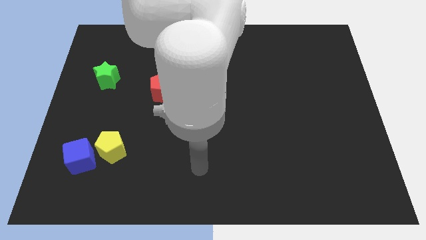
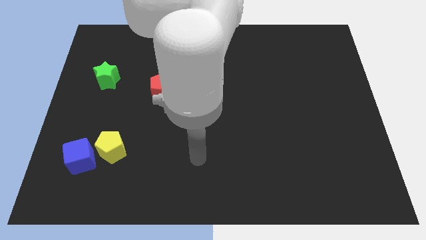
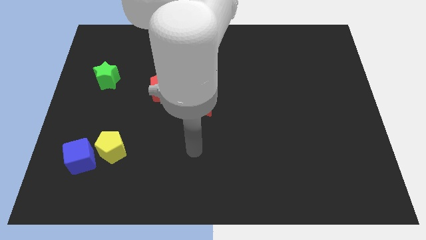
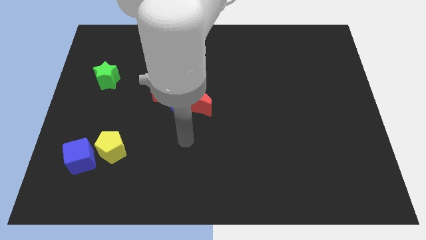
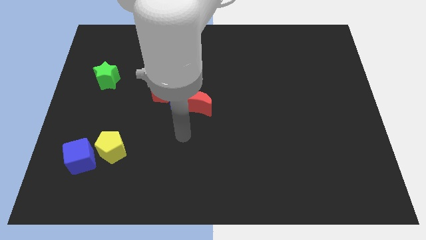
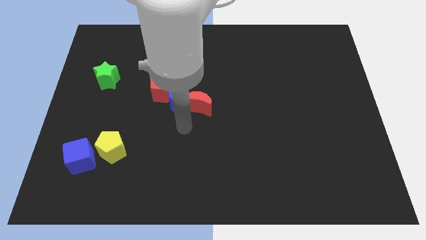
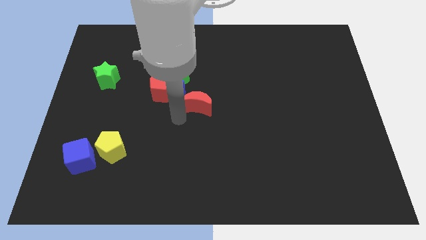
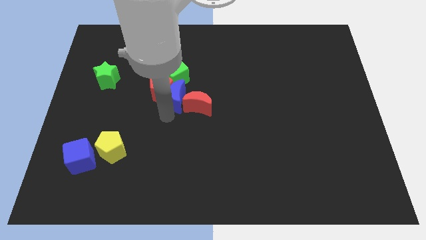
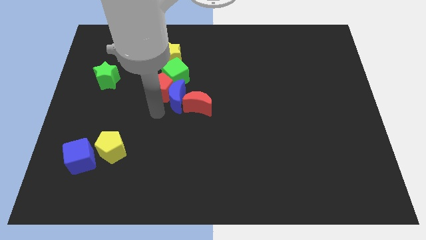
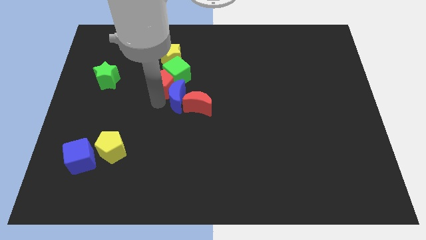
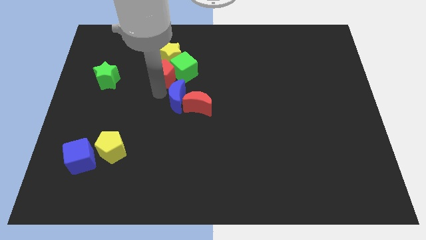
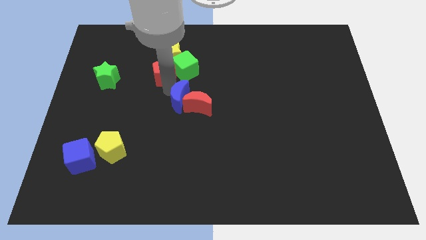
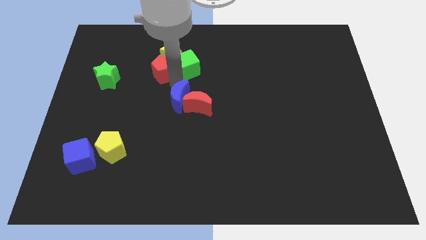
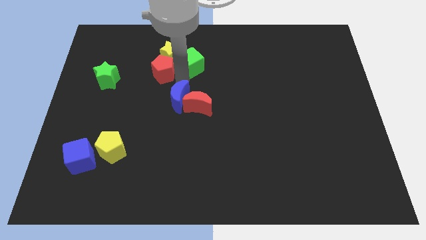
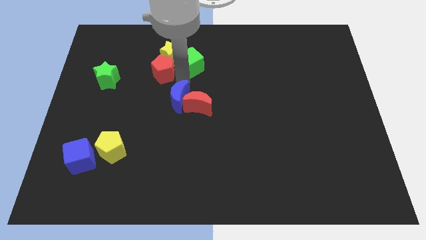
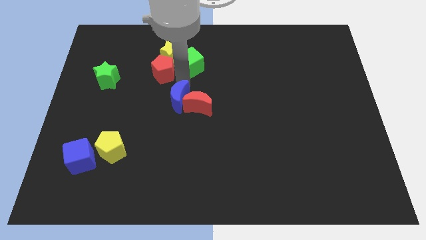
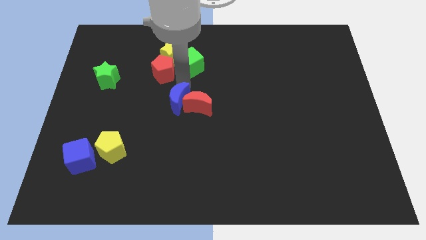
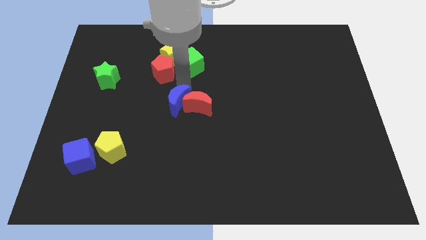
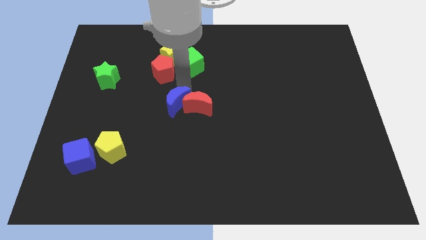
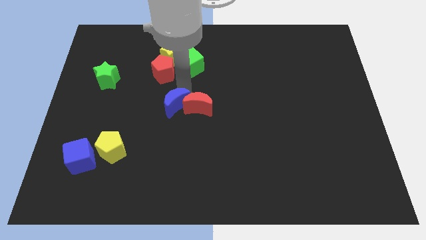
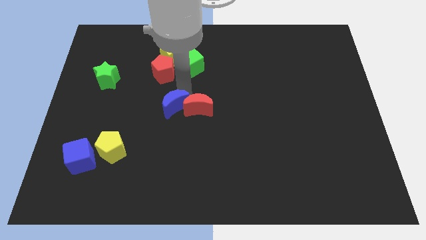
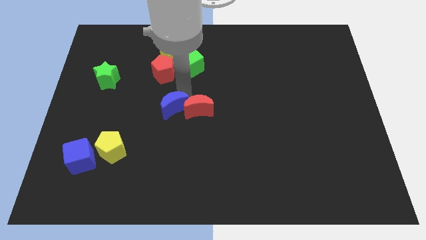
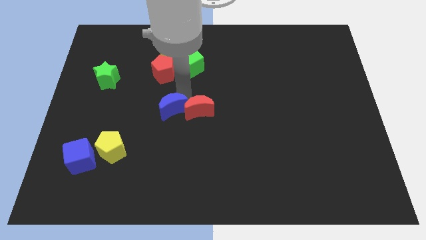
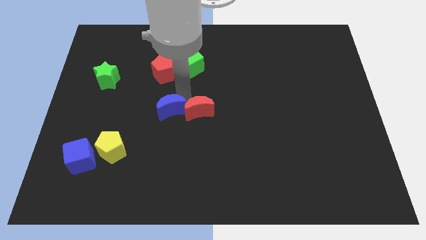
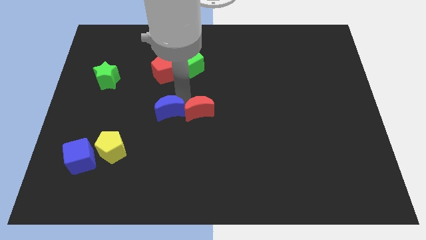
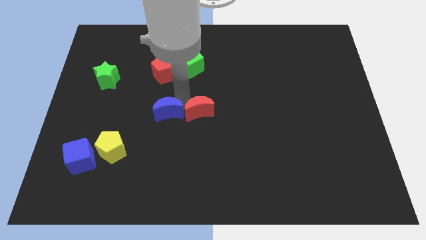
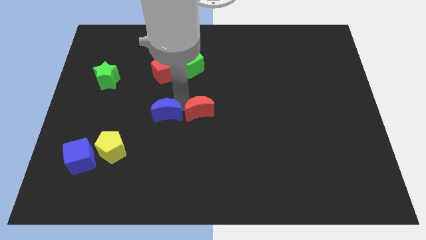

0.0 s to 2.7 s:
pull the blue moon apart from the red pentagon, red moon, and green cube

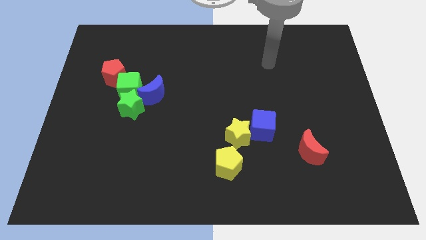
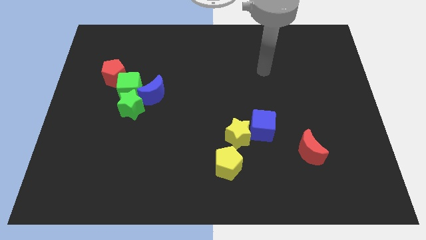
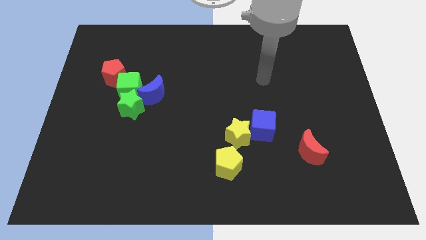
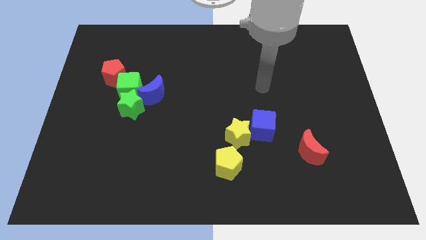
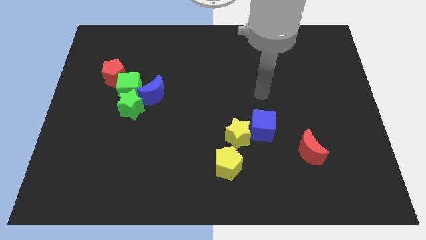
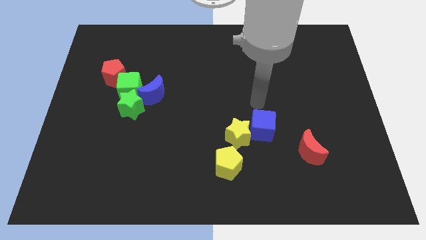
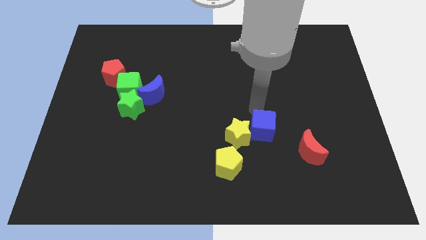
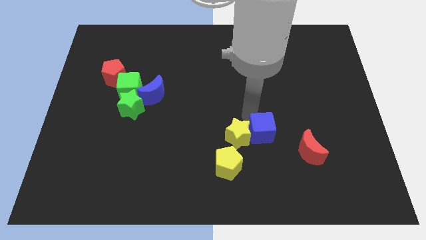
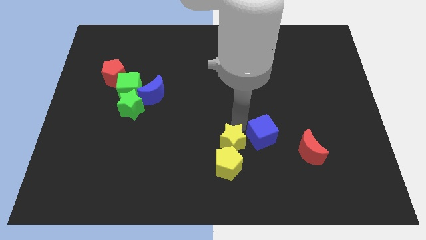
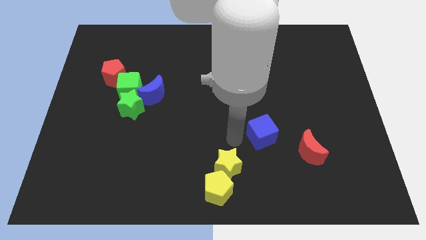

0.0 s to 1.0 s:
pull the blue cube apart from the yellow star

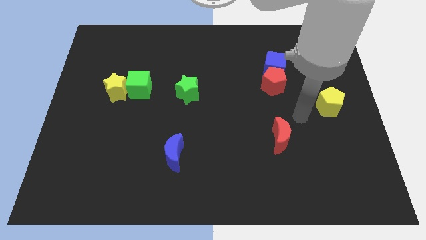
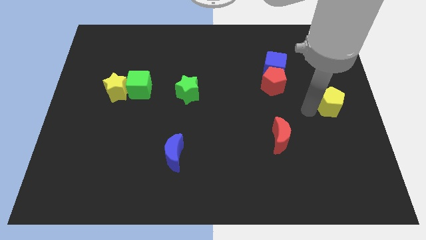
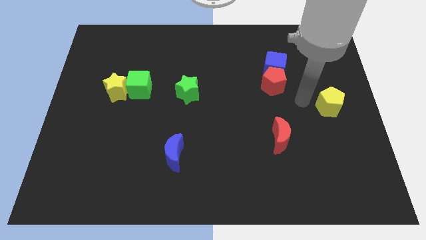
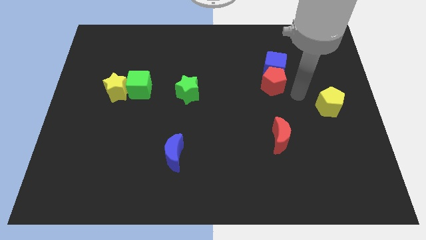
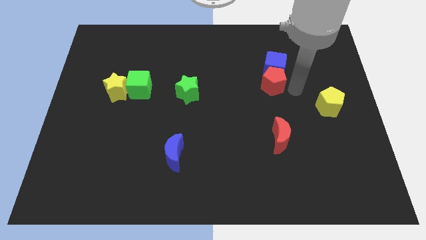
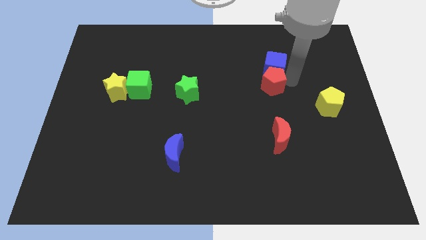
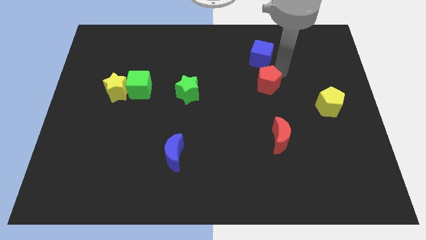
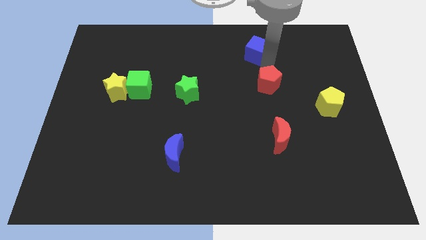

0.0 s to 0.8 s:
separate the red pentagon from the blue cube

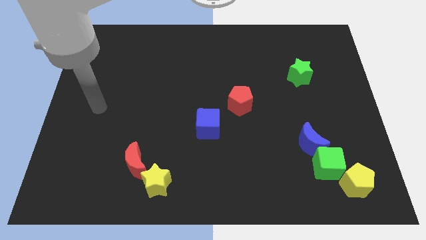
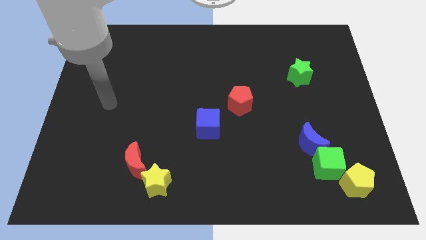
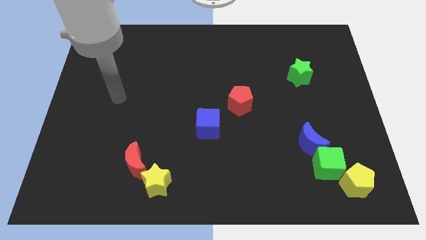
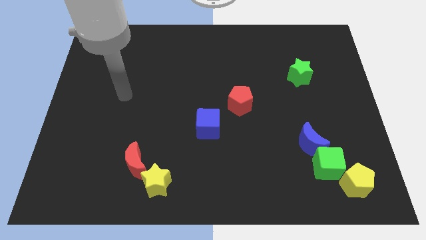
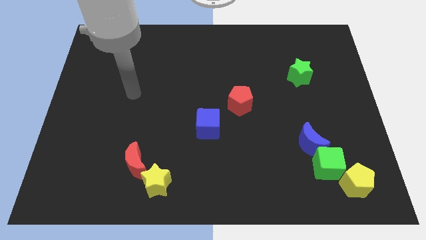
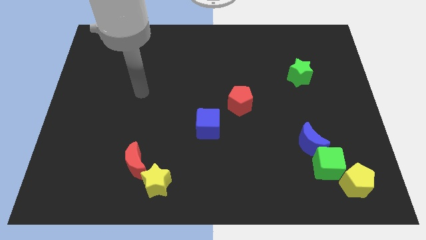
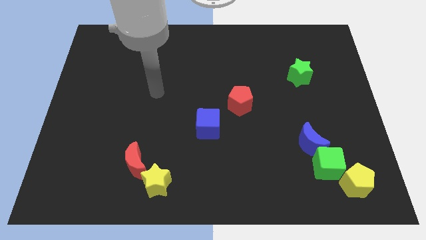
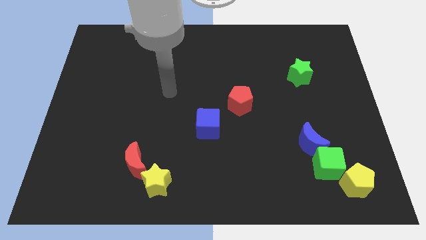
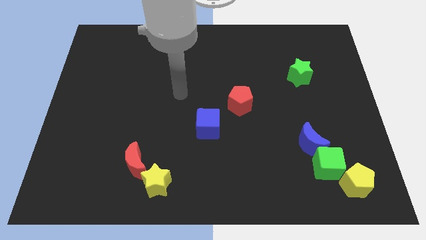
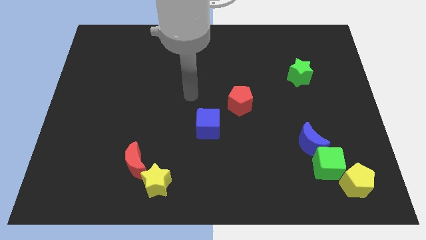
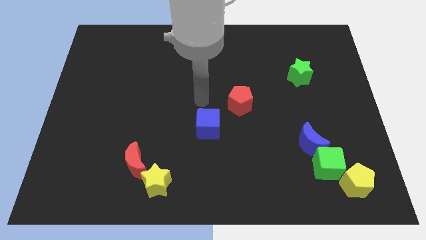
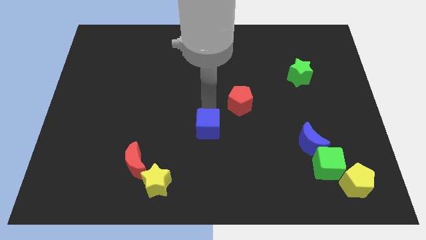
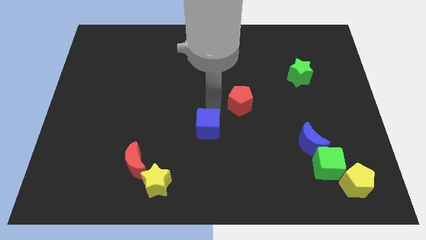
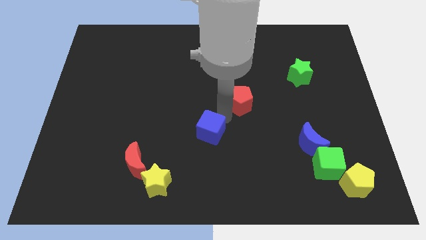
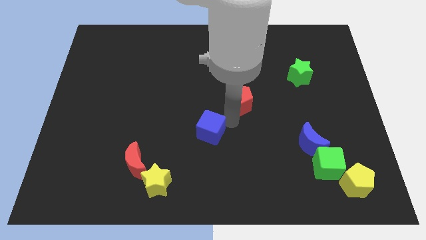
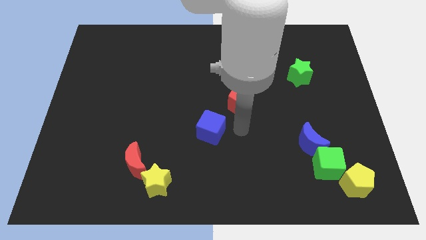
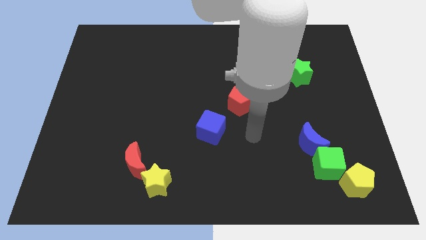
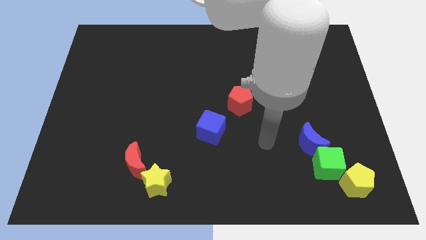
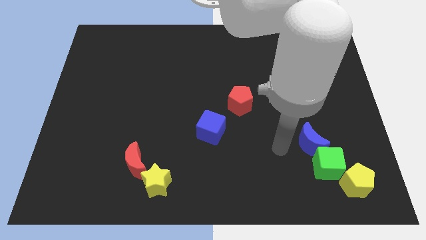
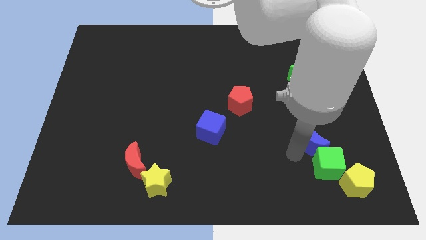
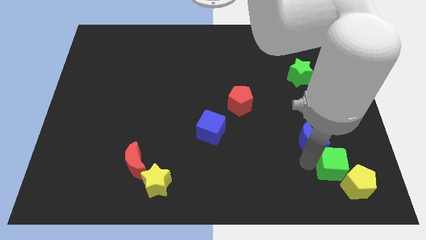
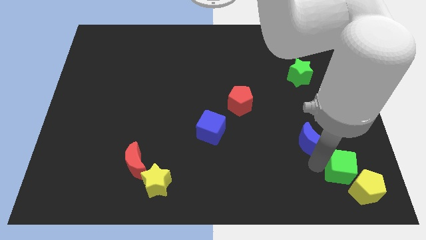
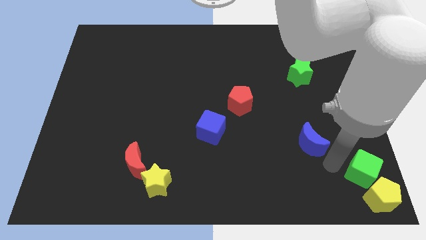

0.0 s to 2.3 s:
pull the blue moon apart from the green cube

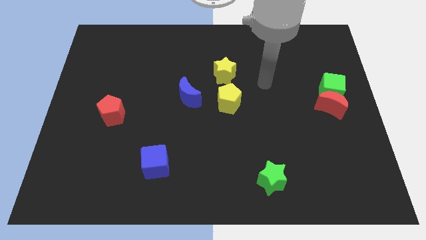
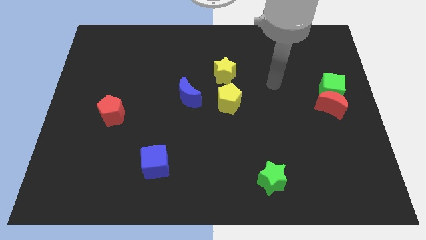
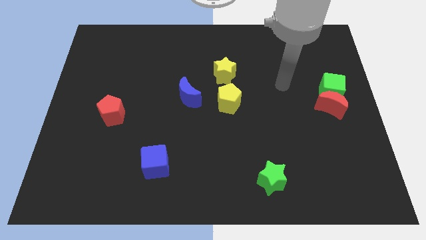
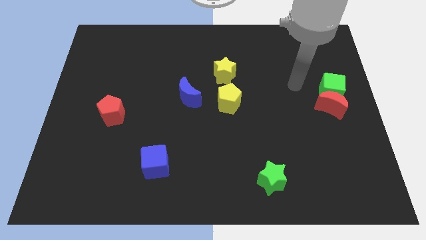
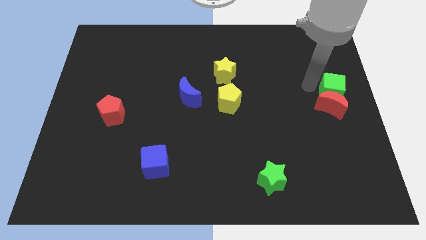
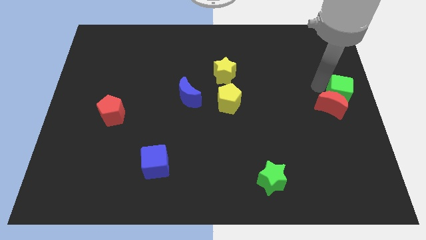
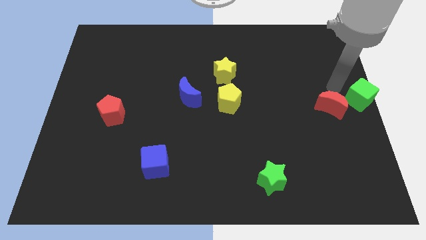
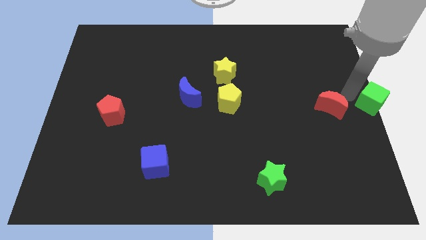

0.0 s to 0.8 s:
move the red moon away from the green cube

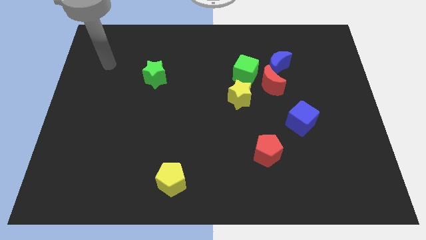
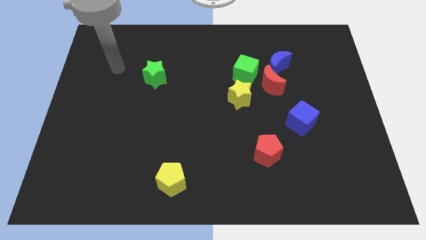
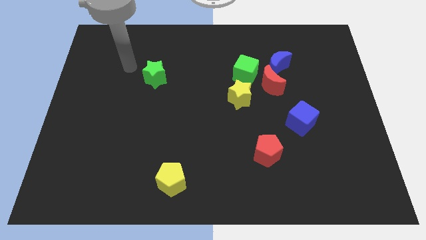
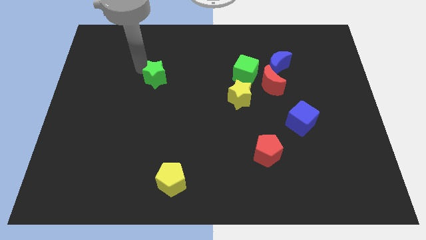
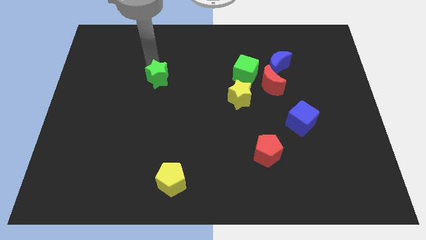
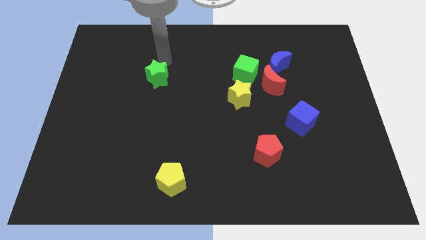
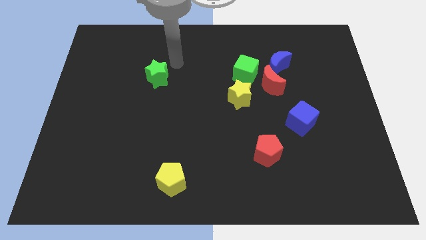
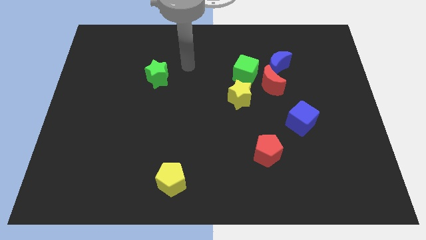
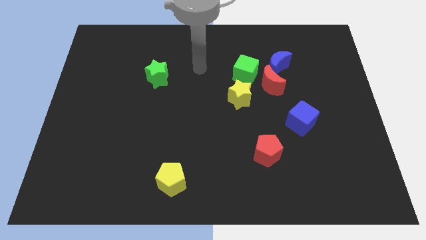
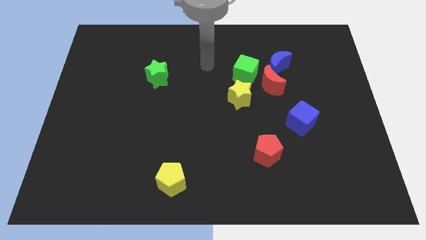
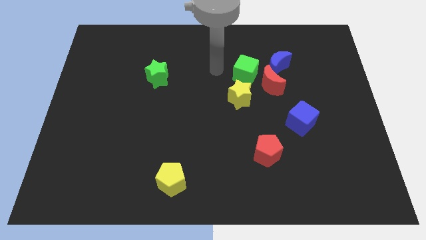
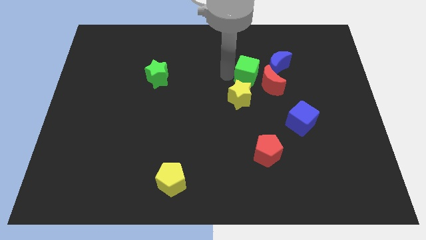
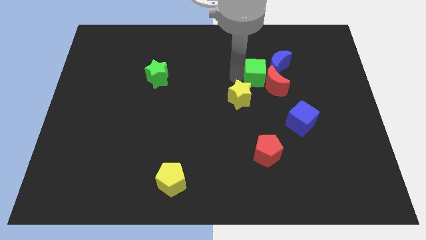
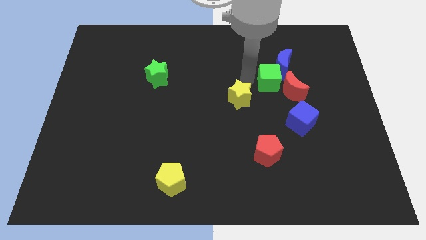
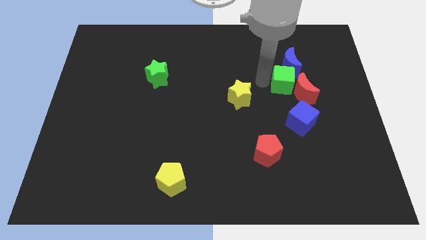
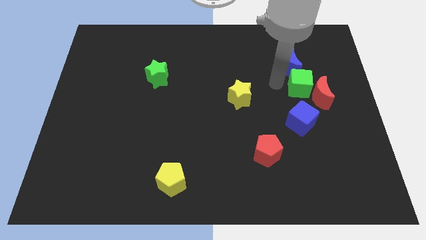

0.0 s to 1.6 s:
move the red moon away from the group of blocks

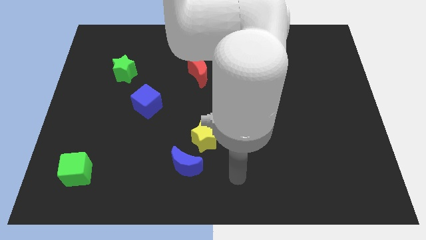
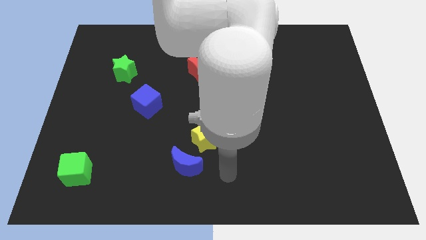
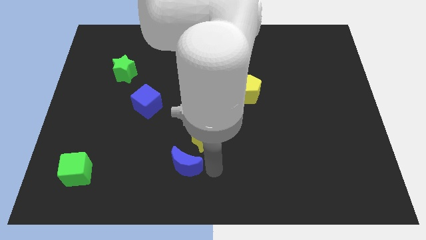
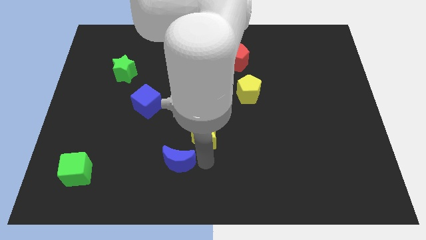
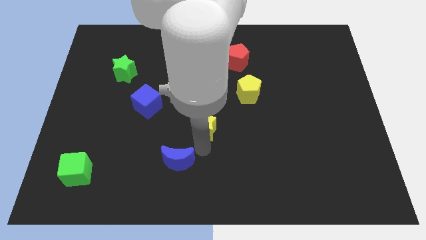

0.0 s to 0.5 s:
move the blue moon away from the yellow star
